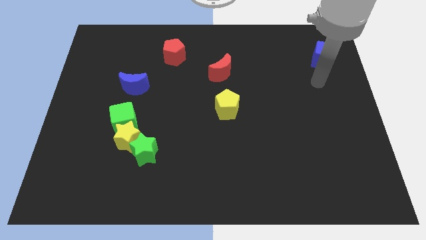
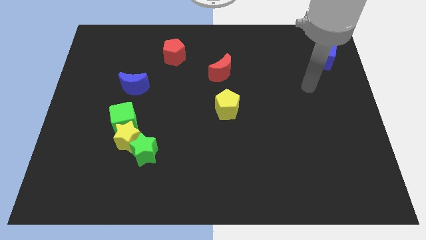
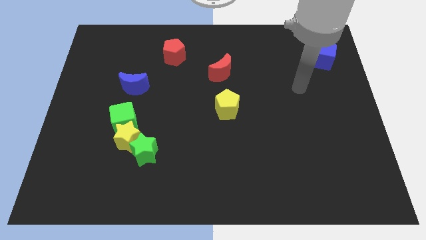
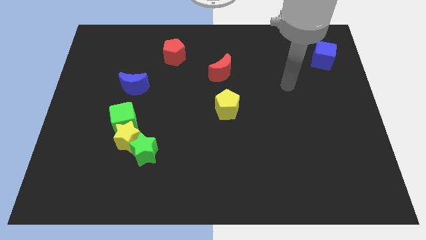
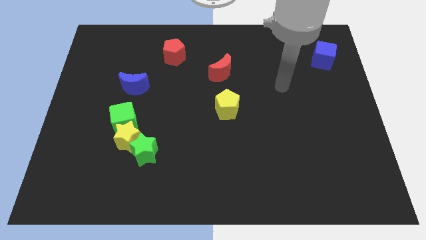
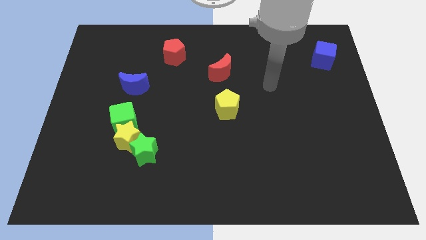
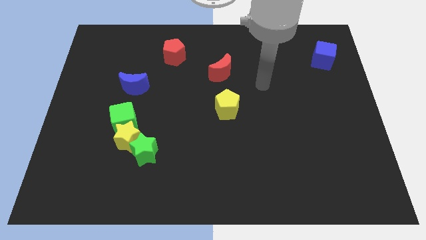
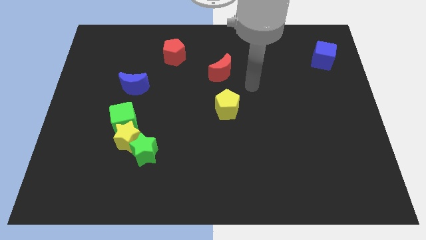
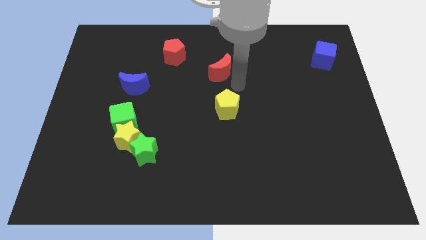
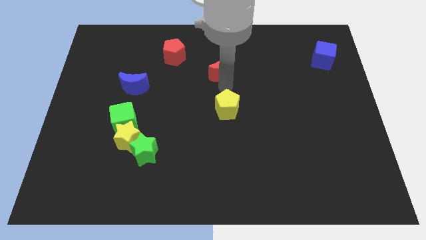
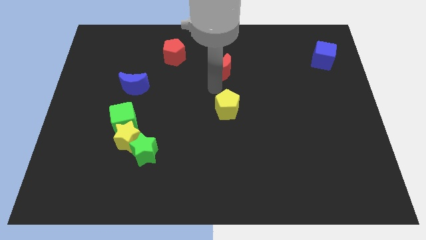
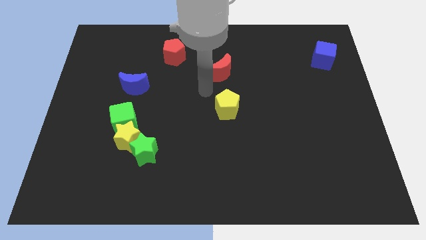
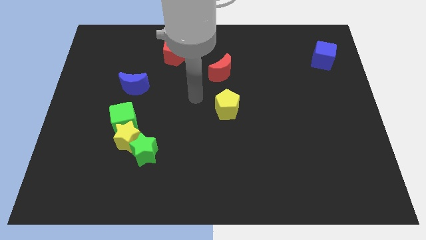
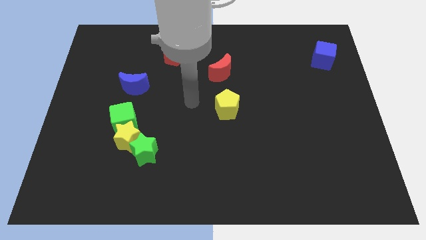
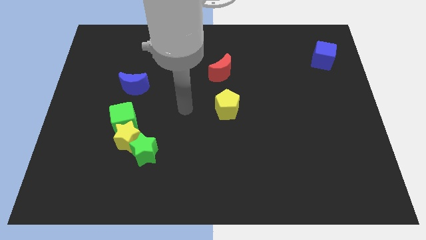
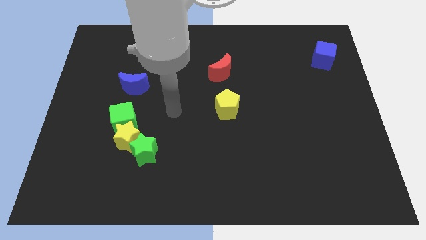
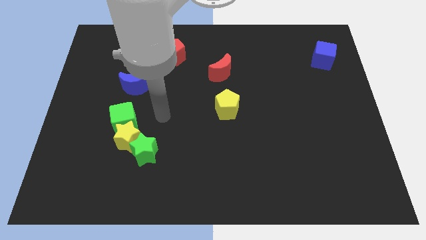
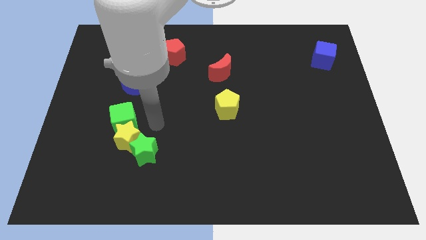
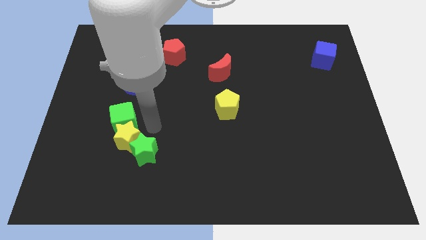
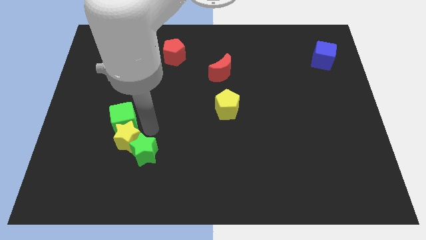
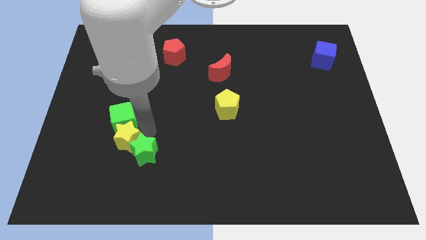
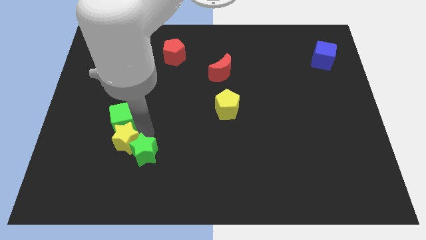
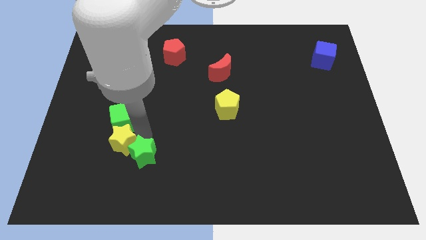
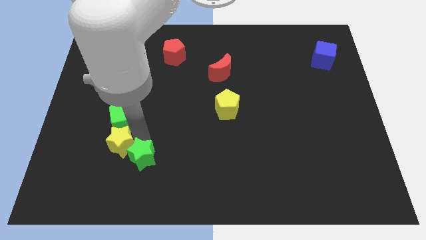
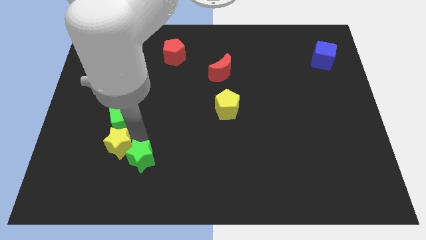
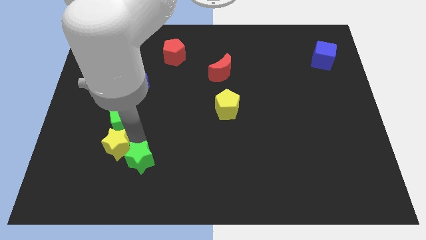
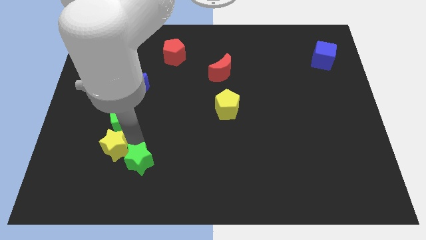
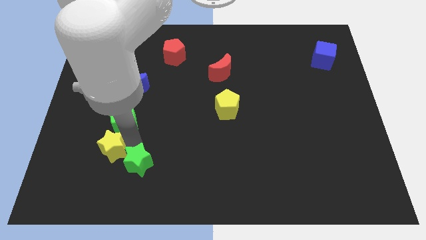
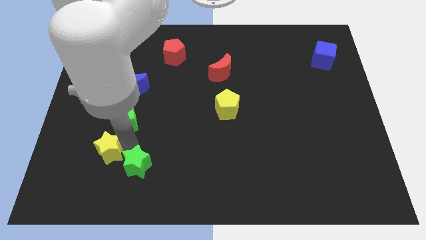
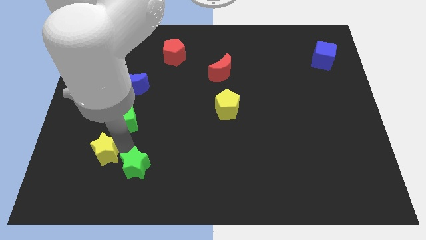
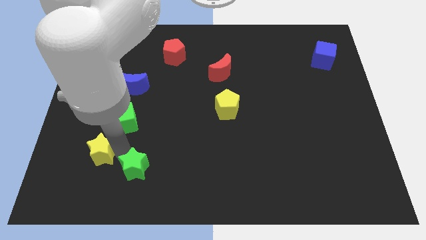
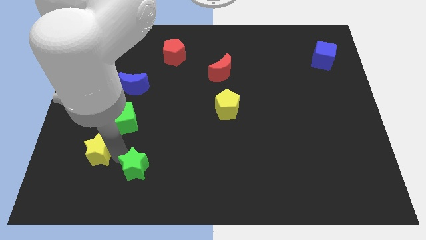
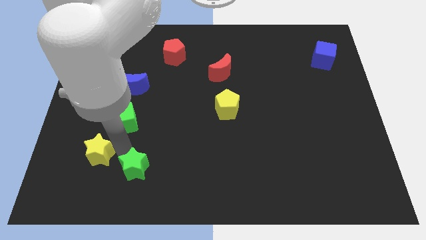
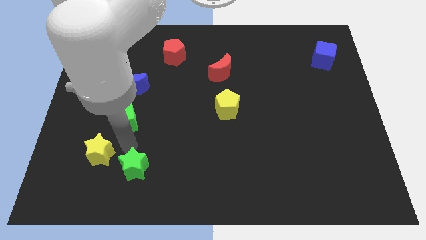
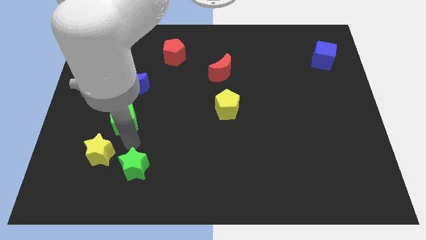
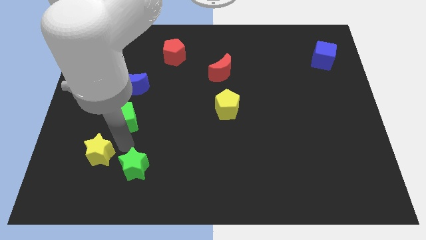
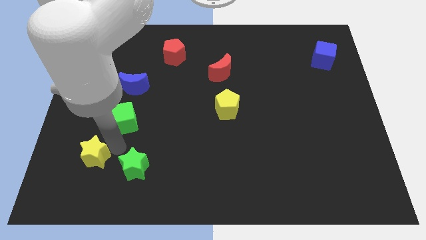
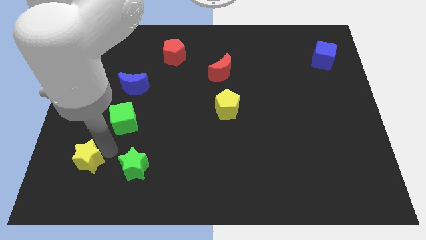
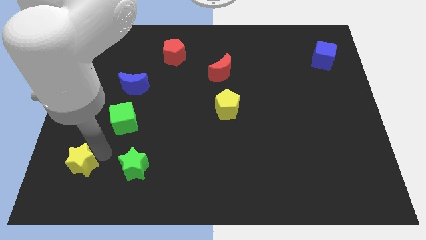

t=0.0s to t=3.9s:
move the yellow star away from the green star and green cube

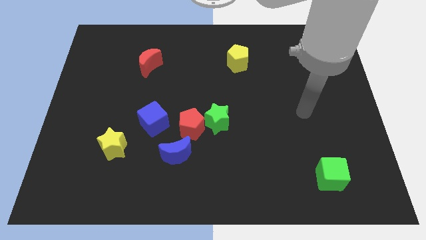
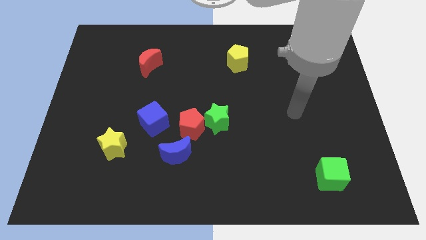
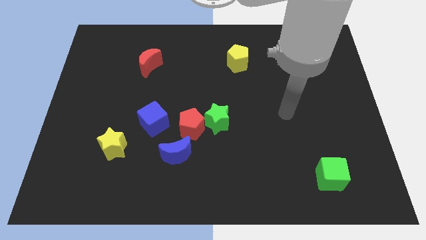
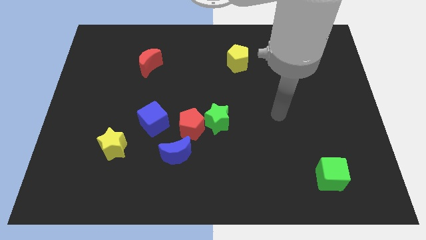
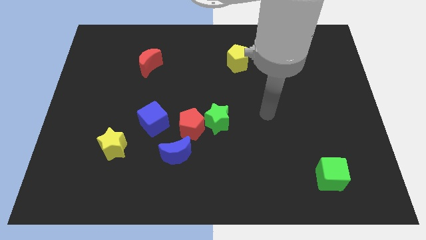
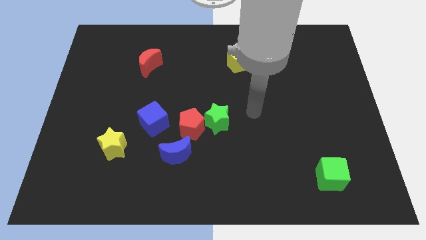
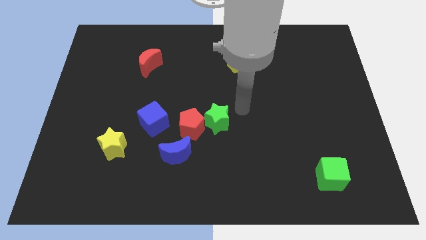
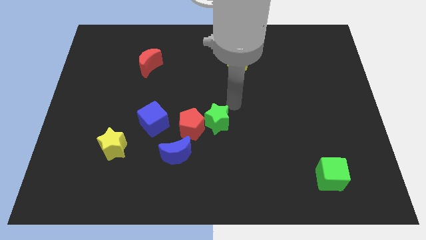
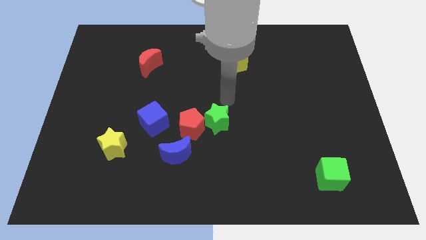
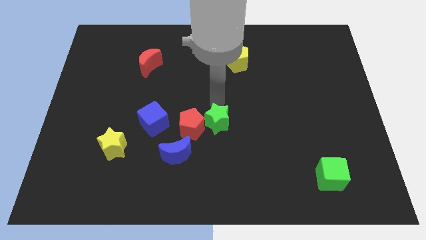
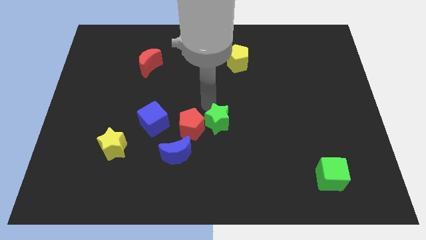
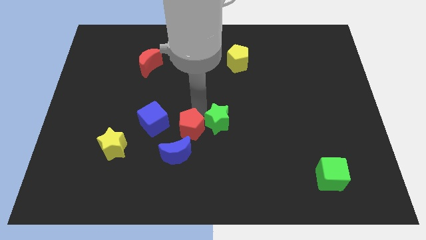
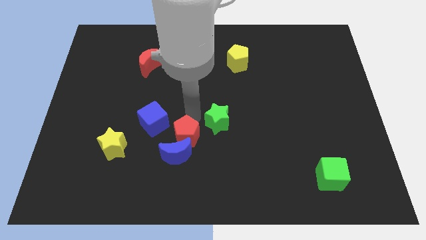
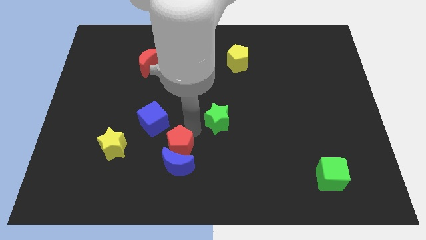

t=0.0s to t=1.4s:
move the green star away from the red pentagon

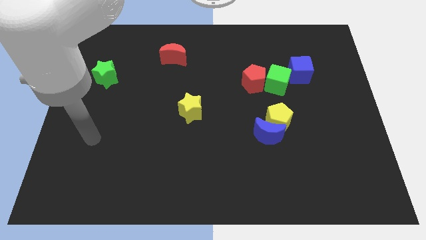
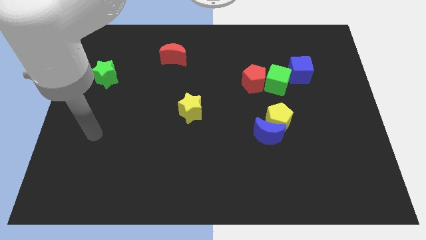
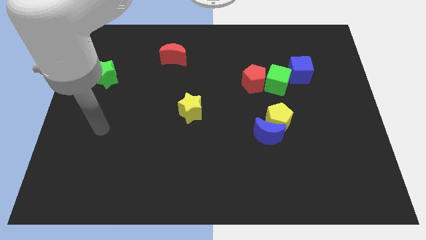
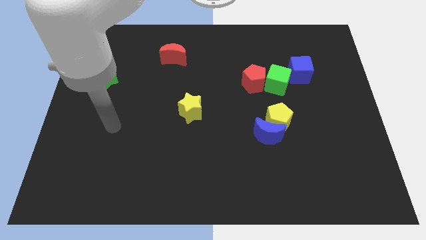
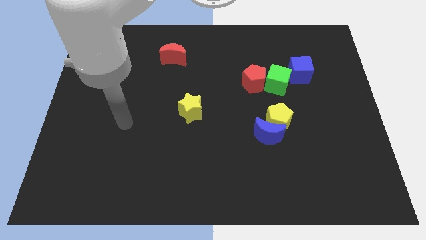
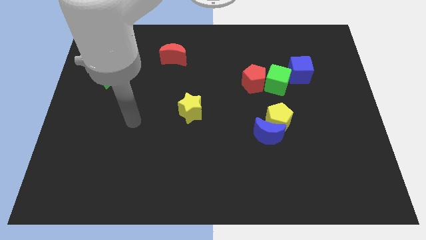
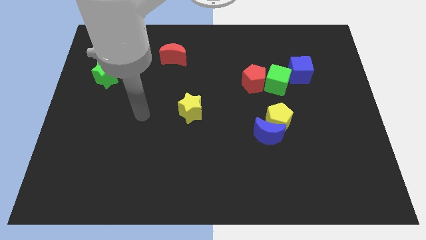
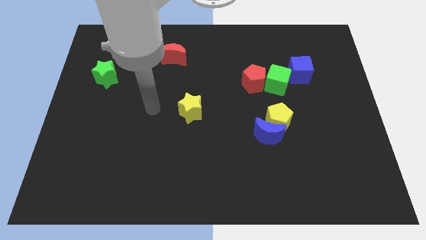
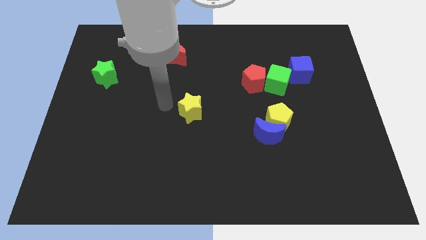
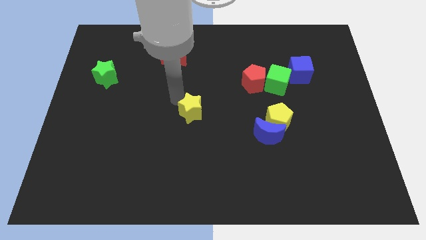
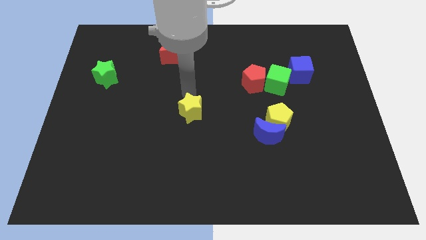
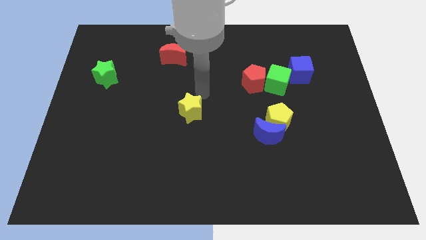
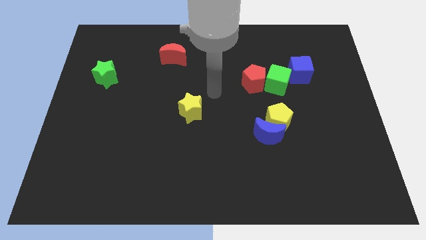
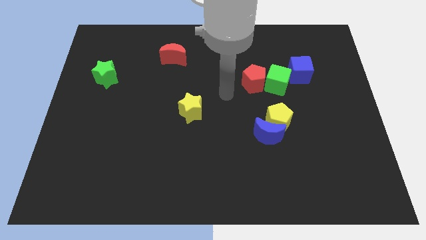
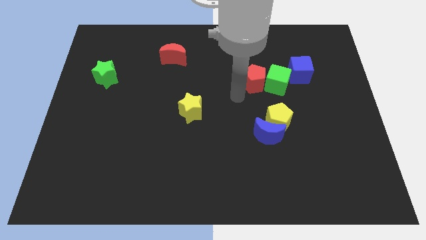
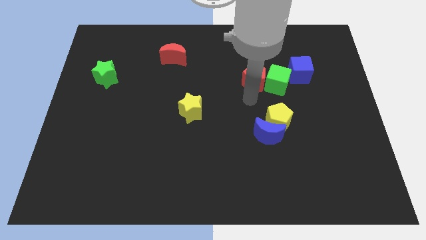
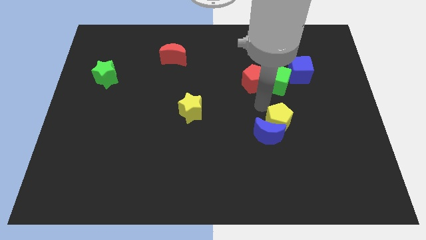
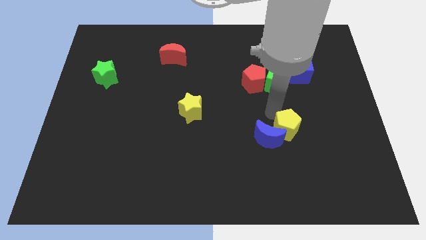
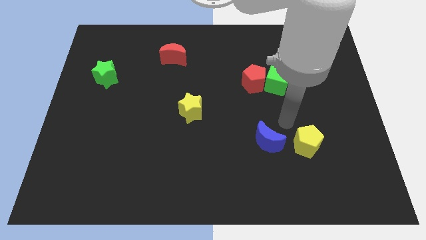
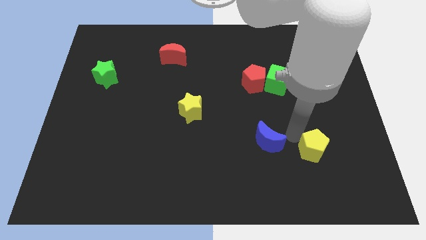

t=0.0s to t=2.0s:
move the blue moon away from the yellow pentagon

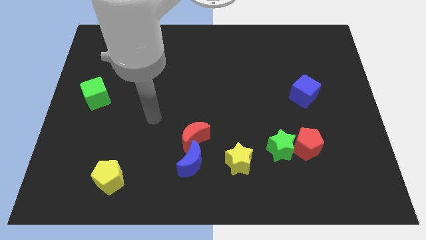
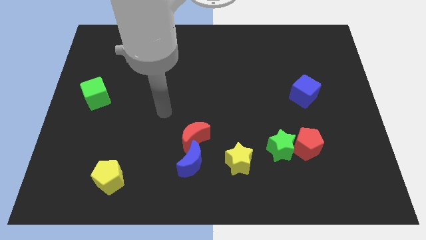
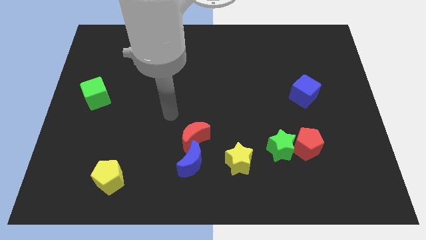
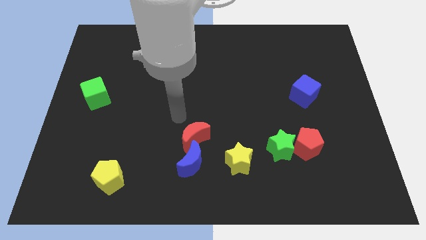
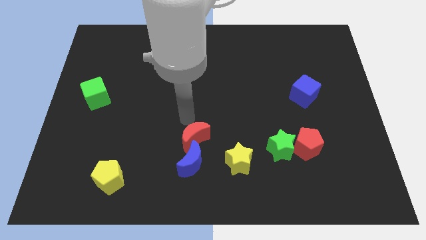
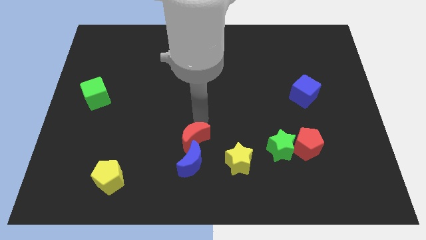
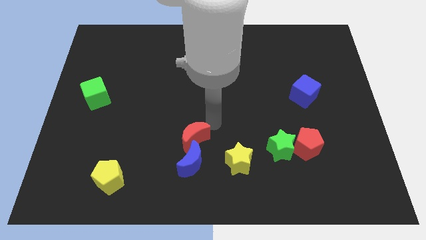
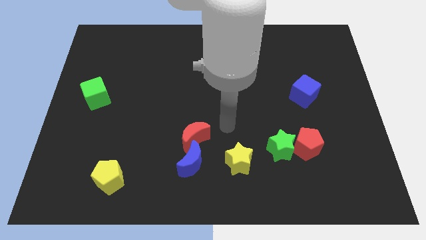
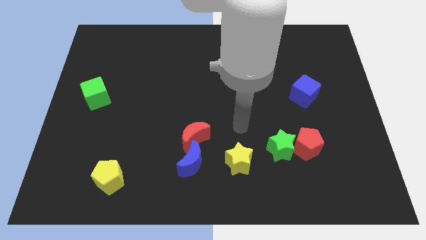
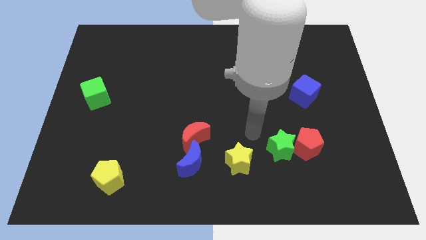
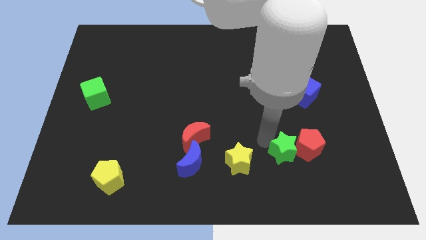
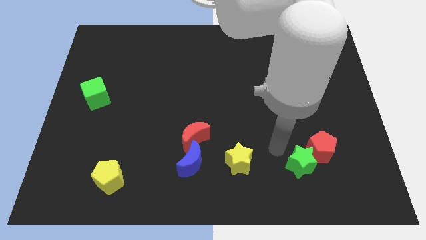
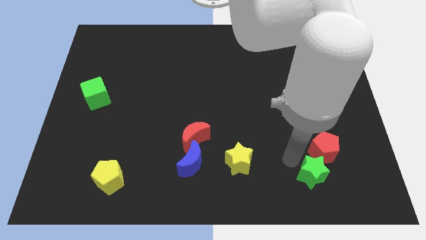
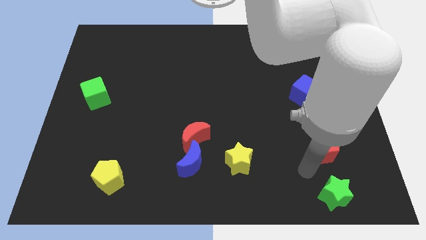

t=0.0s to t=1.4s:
move the red pentagon away from the green star

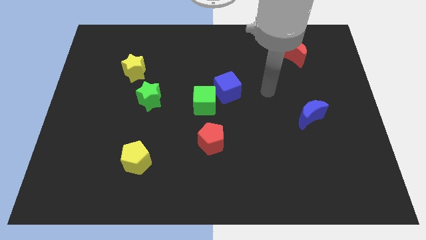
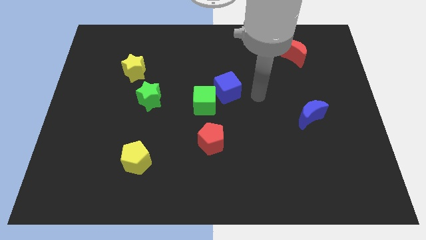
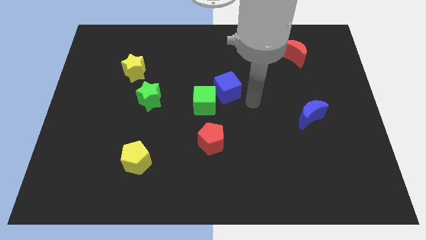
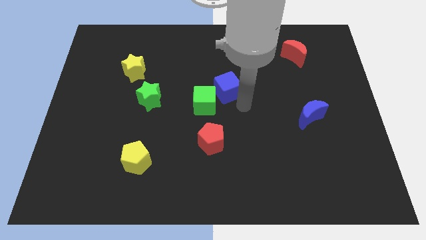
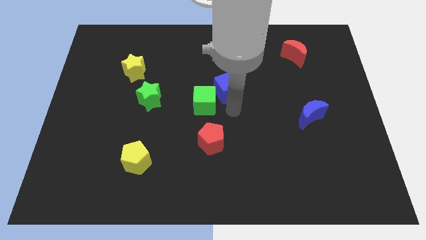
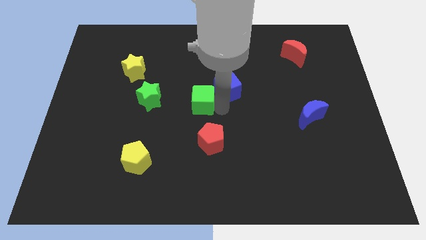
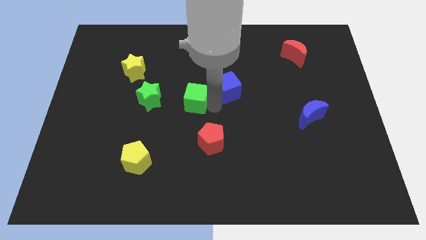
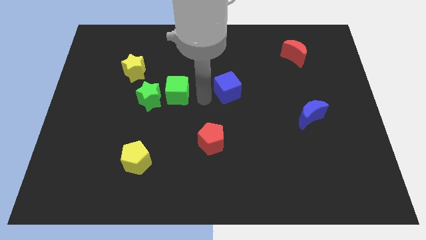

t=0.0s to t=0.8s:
move the blue cube away from the green cube
